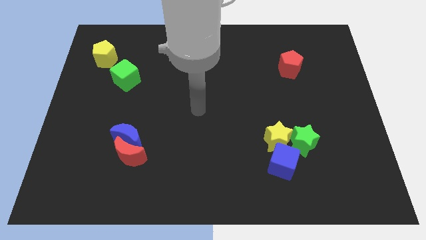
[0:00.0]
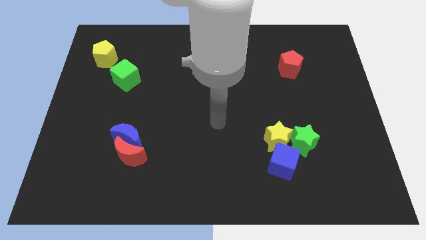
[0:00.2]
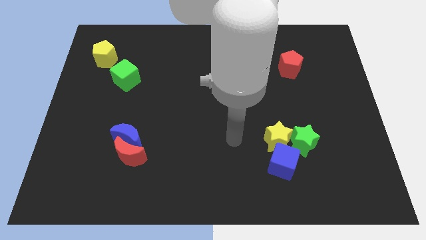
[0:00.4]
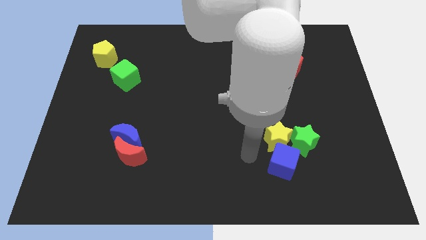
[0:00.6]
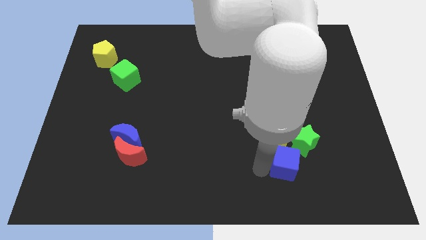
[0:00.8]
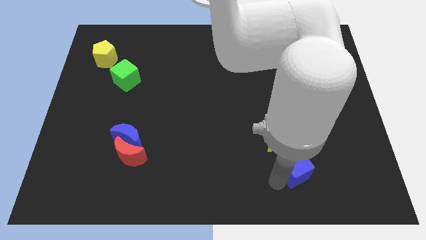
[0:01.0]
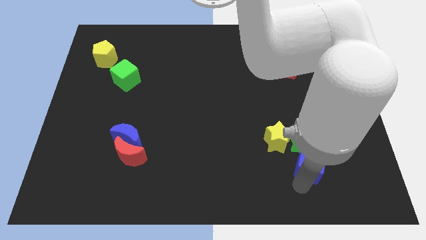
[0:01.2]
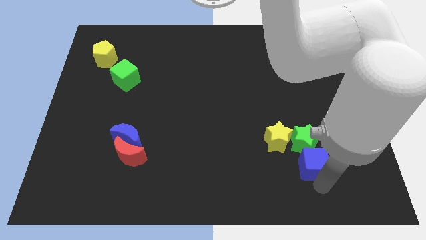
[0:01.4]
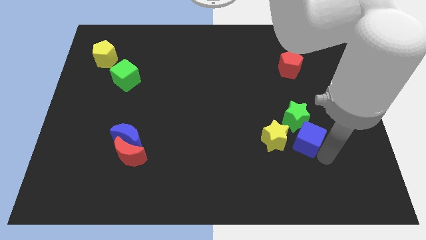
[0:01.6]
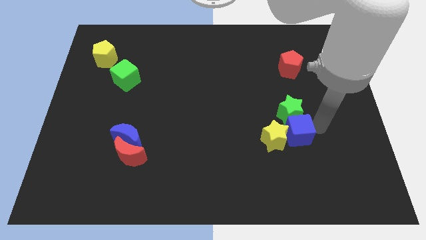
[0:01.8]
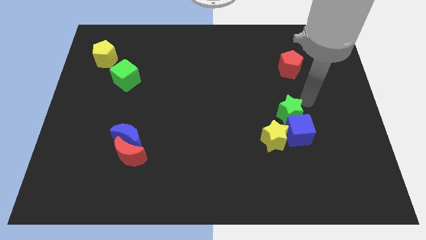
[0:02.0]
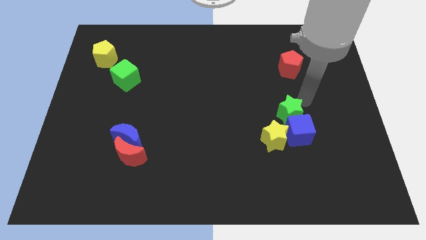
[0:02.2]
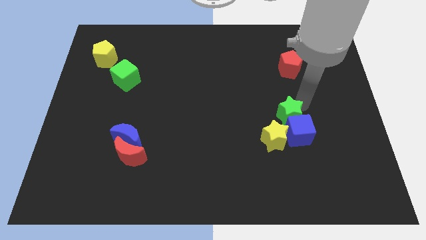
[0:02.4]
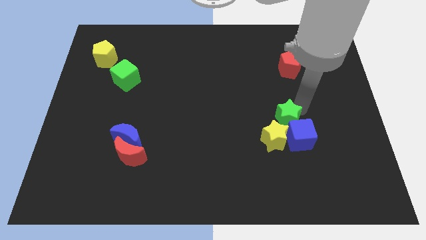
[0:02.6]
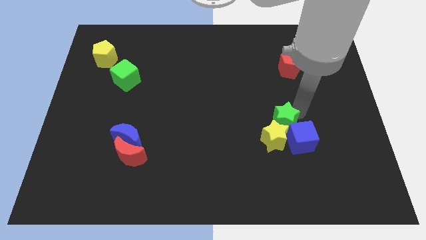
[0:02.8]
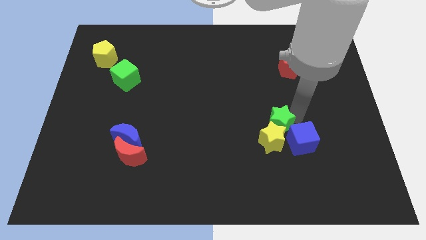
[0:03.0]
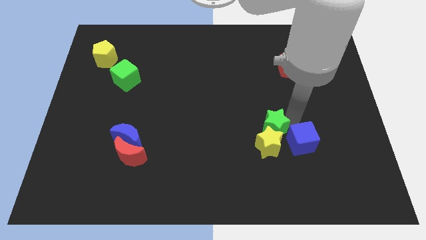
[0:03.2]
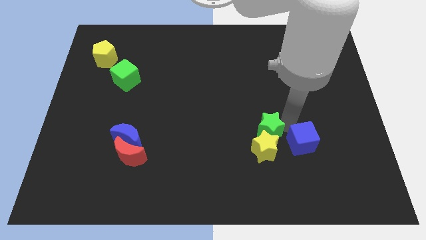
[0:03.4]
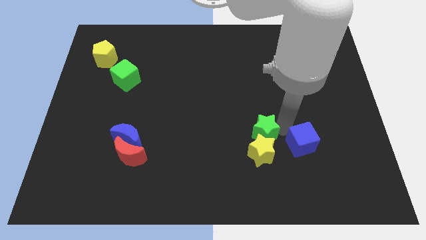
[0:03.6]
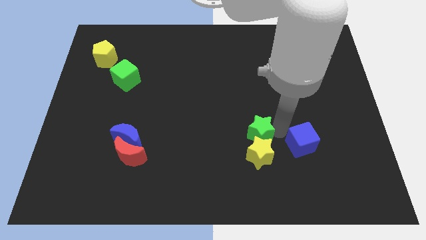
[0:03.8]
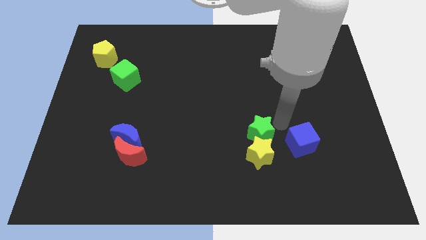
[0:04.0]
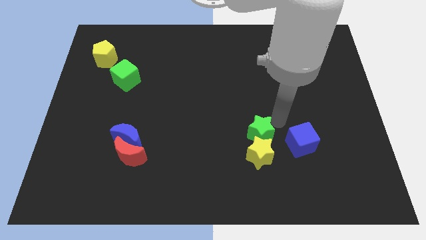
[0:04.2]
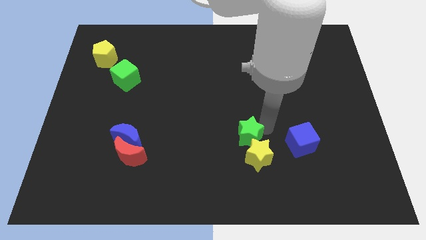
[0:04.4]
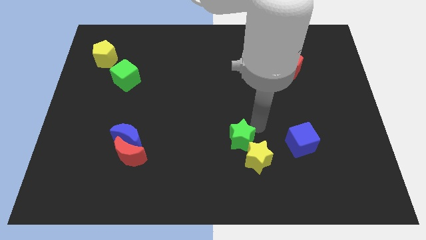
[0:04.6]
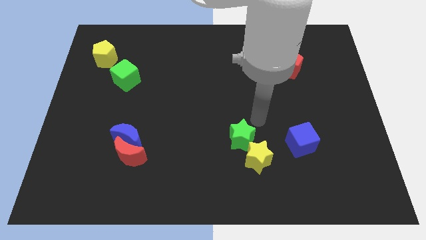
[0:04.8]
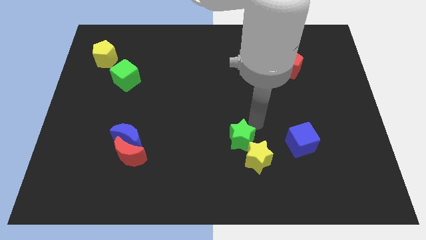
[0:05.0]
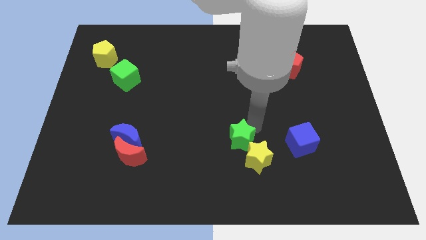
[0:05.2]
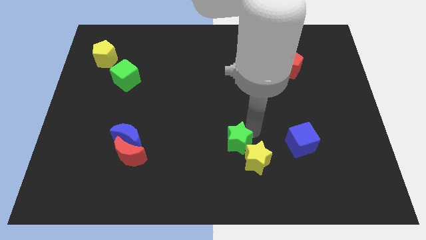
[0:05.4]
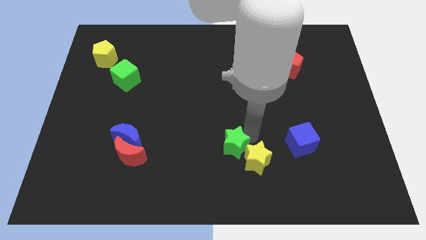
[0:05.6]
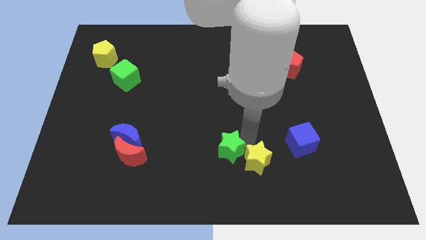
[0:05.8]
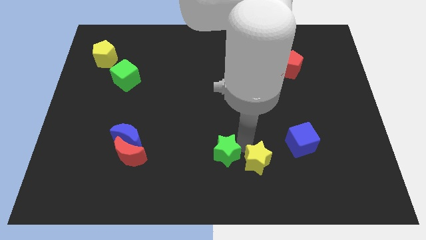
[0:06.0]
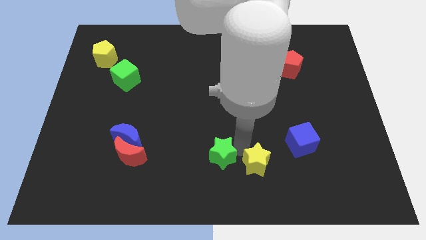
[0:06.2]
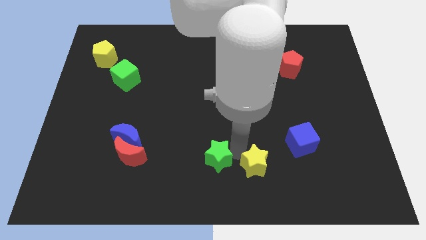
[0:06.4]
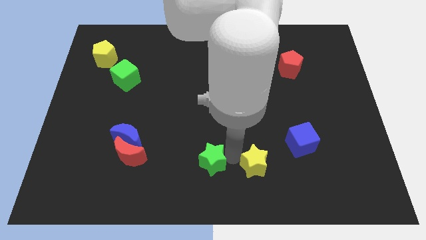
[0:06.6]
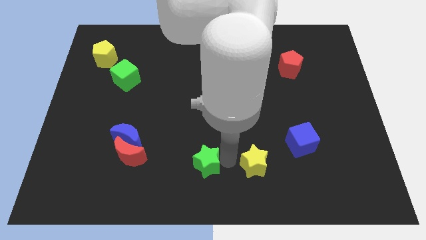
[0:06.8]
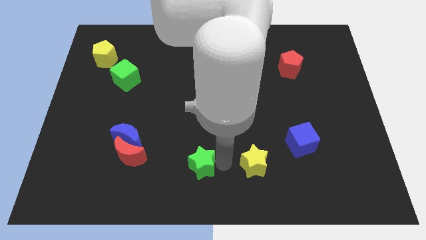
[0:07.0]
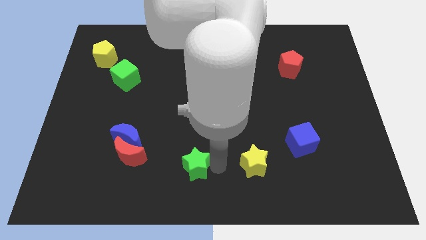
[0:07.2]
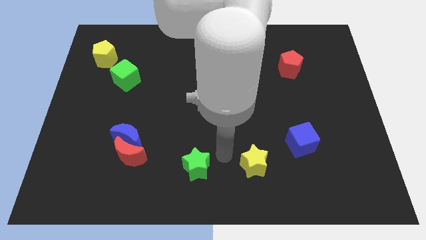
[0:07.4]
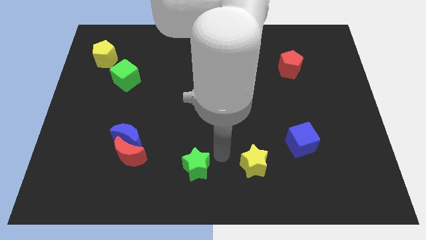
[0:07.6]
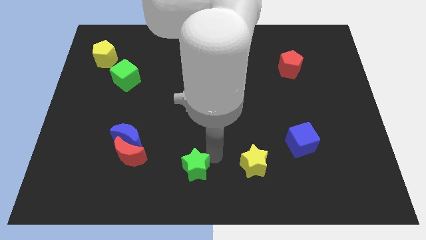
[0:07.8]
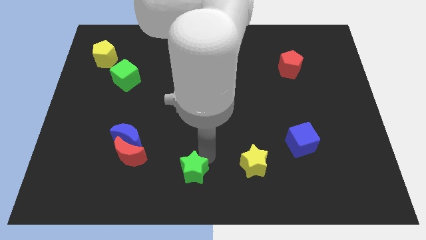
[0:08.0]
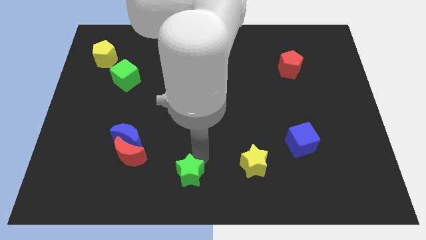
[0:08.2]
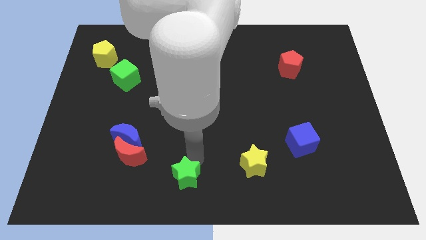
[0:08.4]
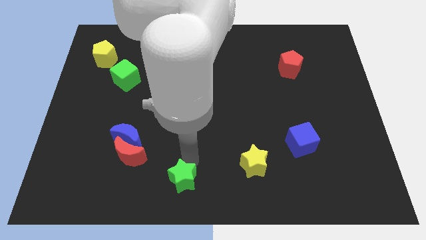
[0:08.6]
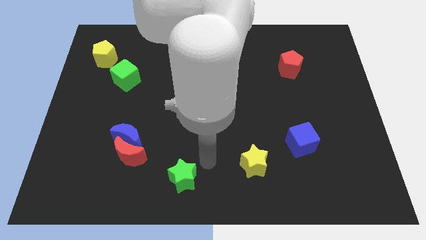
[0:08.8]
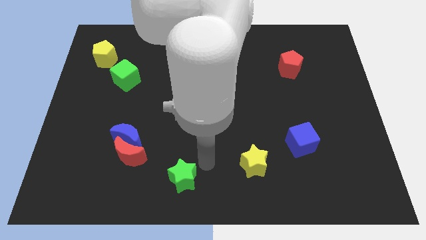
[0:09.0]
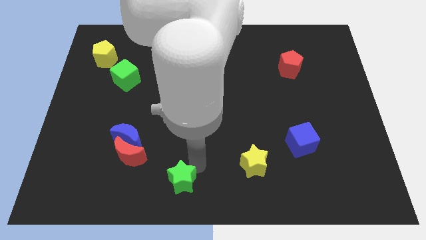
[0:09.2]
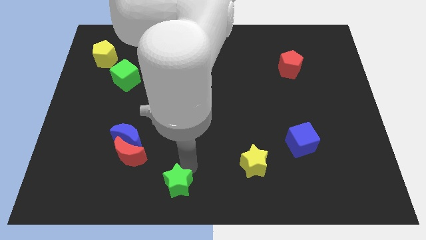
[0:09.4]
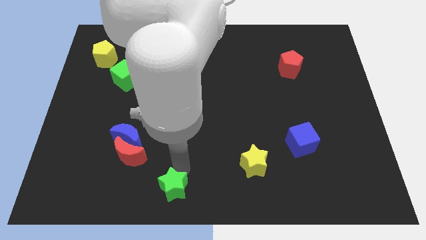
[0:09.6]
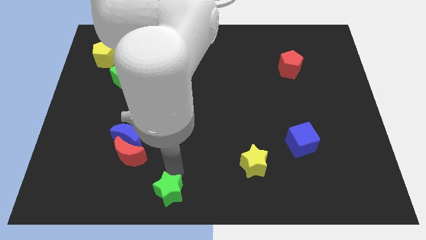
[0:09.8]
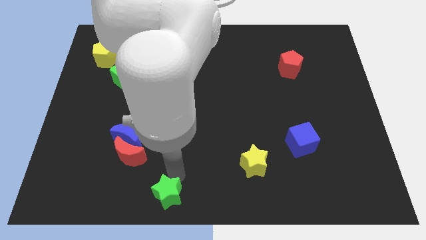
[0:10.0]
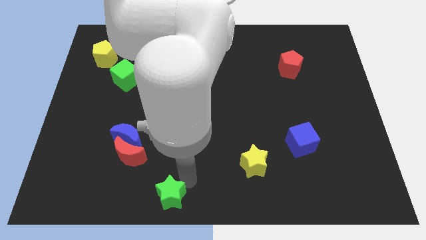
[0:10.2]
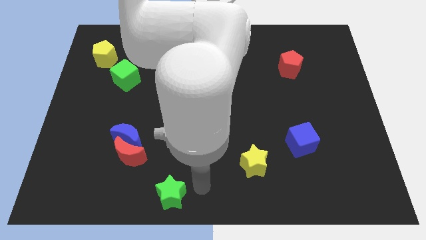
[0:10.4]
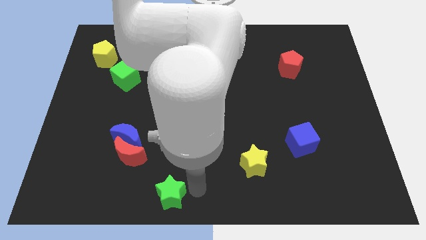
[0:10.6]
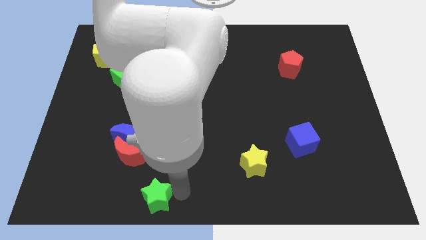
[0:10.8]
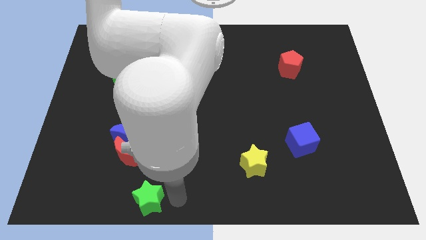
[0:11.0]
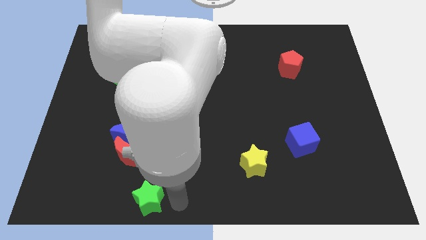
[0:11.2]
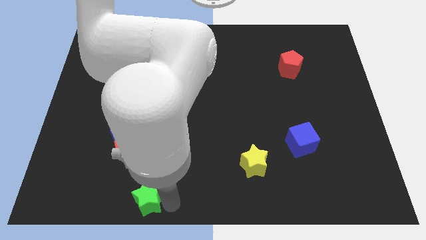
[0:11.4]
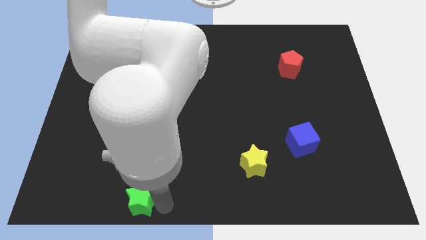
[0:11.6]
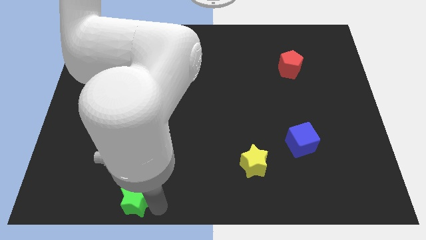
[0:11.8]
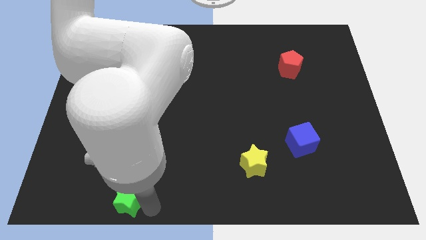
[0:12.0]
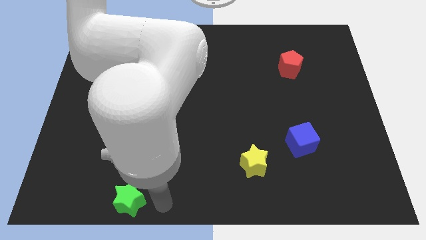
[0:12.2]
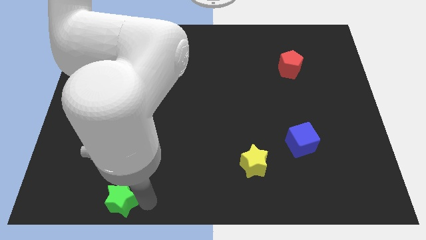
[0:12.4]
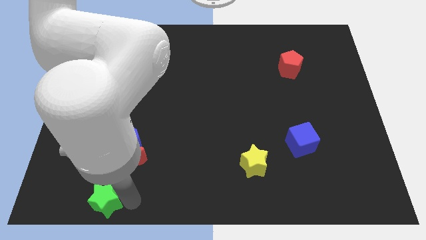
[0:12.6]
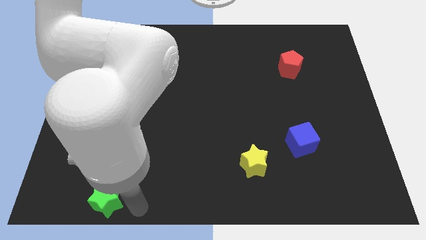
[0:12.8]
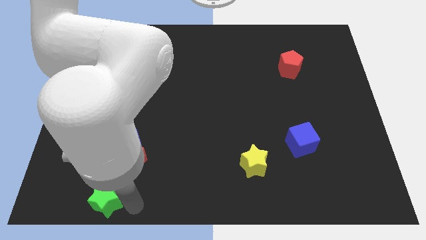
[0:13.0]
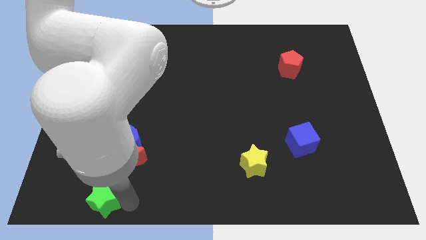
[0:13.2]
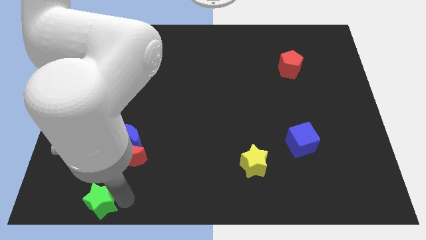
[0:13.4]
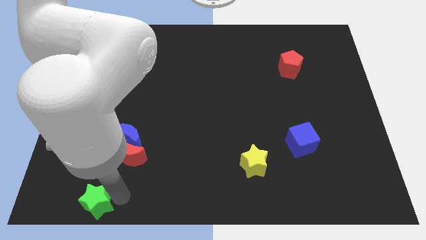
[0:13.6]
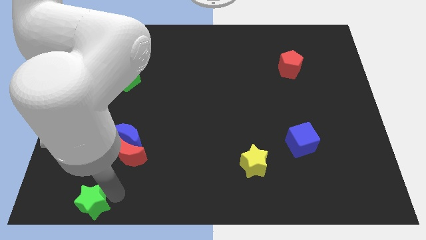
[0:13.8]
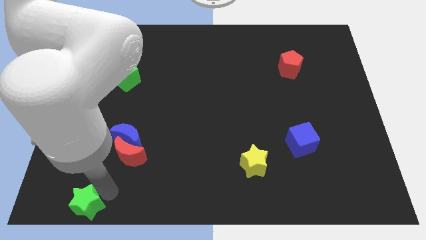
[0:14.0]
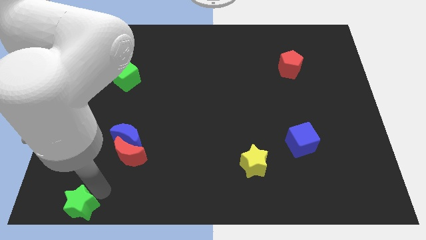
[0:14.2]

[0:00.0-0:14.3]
move the green star to the lower left corner

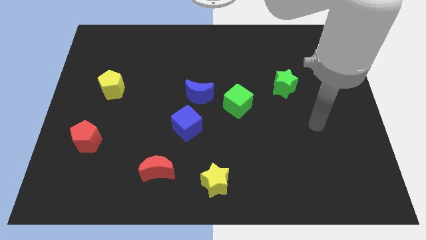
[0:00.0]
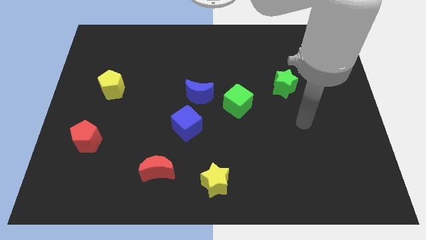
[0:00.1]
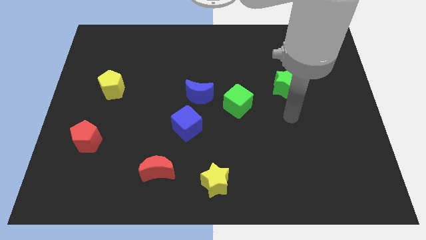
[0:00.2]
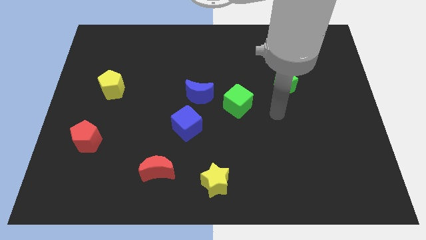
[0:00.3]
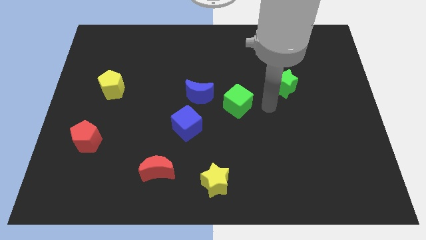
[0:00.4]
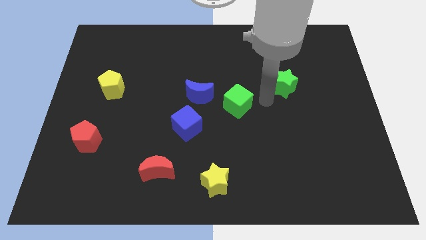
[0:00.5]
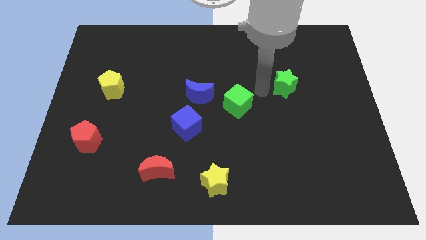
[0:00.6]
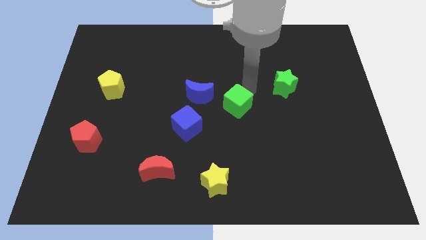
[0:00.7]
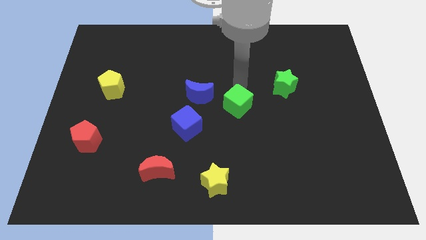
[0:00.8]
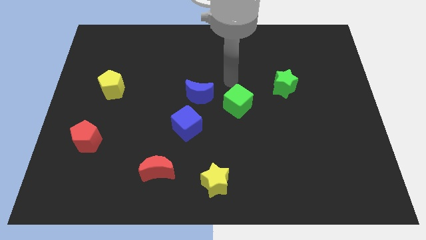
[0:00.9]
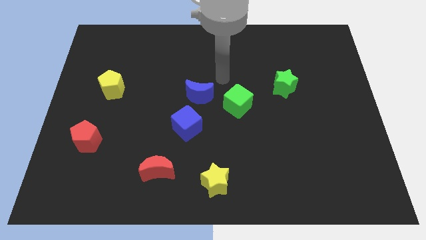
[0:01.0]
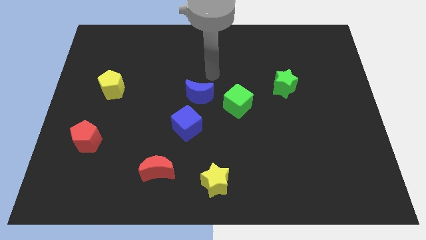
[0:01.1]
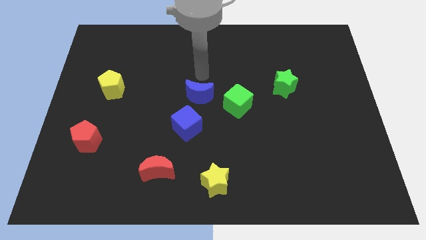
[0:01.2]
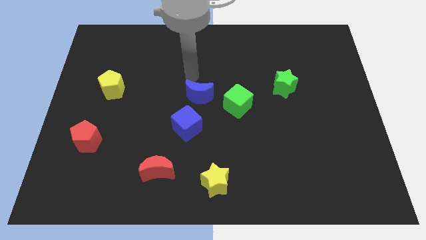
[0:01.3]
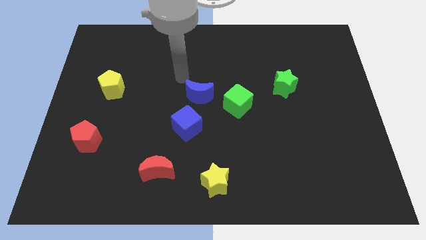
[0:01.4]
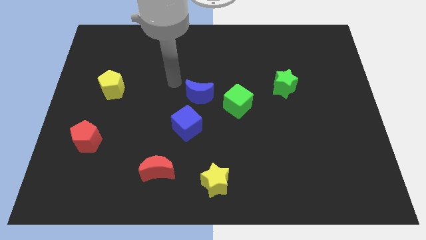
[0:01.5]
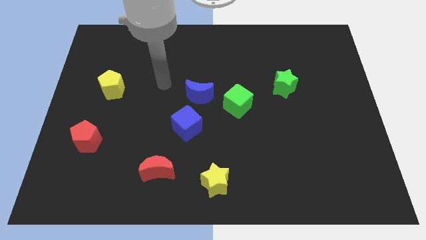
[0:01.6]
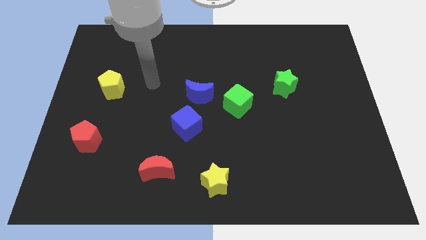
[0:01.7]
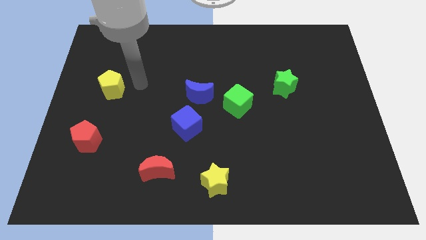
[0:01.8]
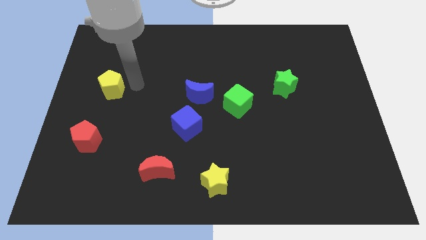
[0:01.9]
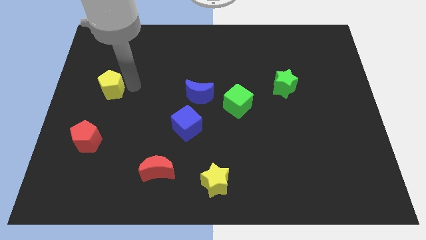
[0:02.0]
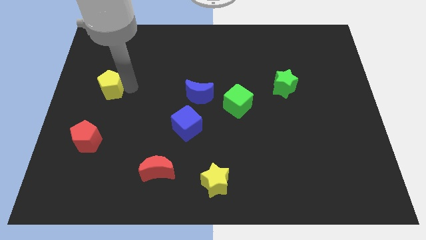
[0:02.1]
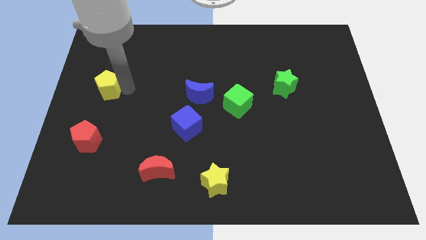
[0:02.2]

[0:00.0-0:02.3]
move the yellow pentagon to the left side
